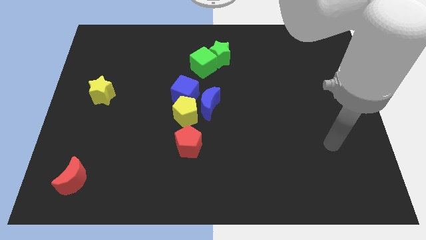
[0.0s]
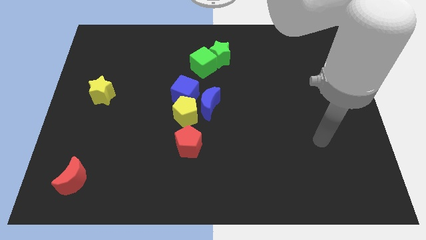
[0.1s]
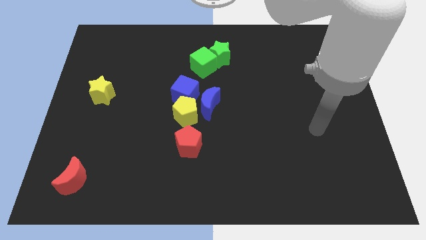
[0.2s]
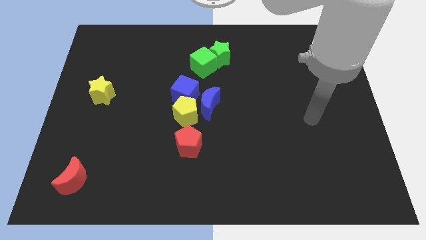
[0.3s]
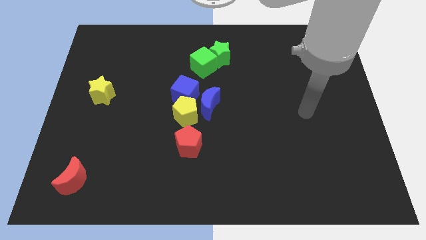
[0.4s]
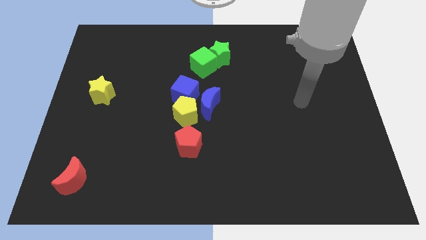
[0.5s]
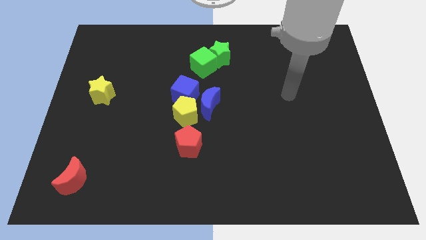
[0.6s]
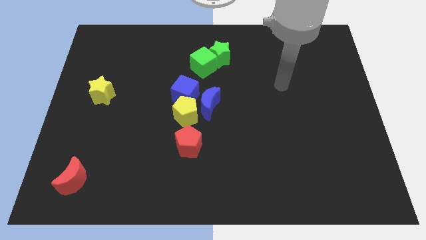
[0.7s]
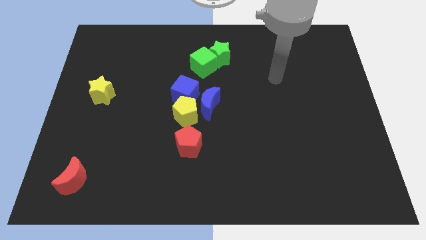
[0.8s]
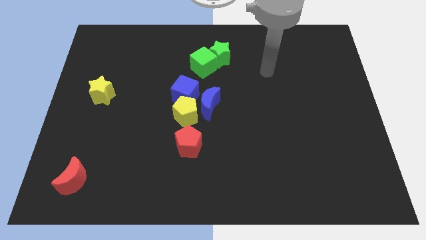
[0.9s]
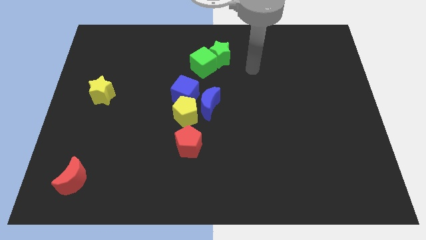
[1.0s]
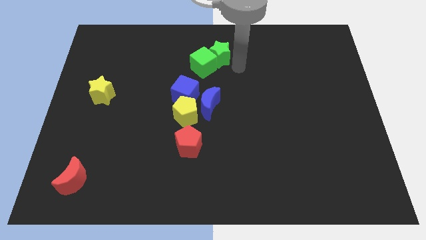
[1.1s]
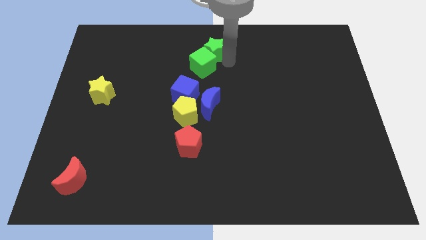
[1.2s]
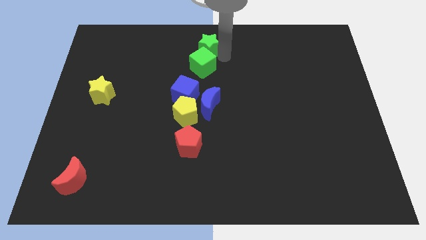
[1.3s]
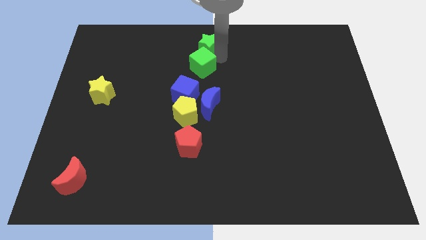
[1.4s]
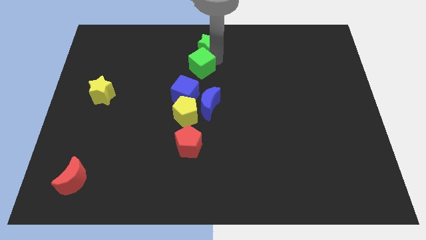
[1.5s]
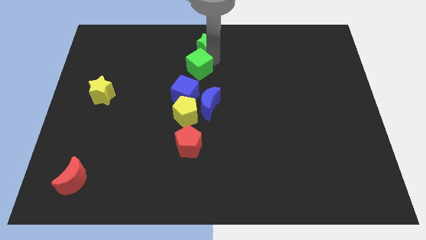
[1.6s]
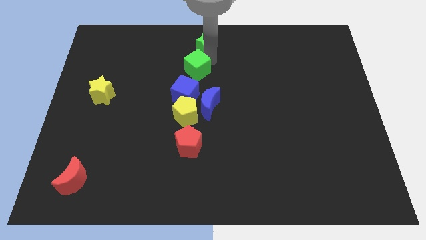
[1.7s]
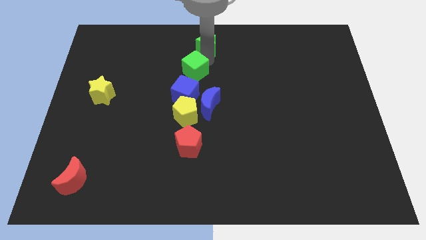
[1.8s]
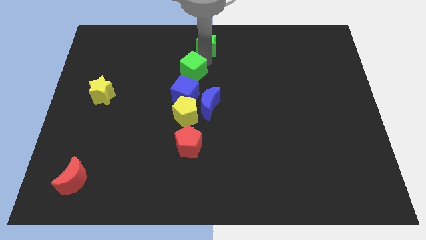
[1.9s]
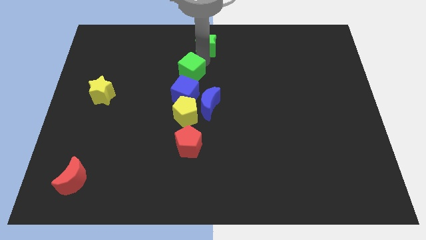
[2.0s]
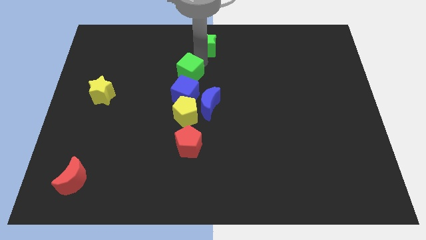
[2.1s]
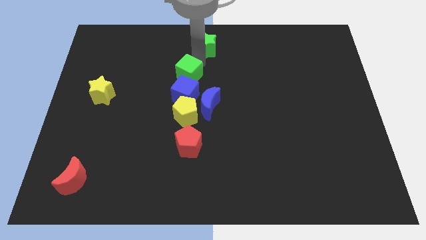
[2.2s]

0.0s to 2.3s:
move the green cube away from the green star

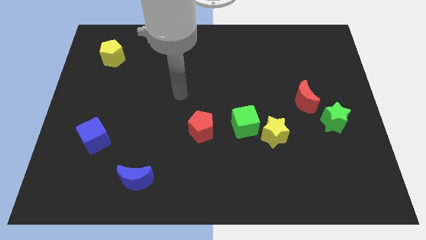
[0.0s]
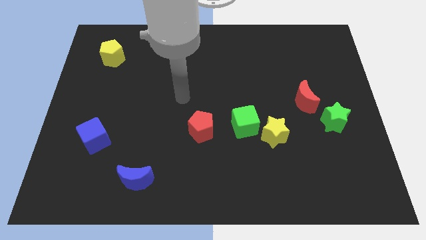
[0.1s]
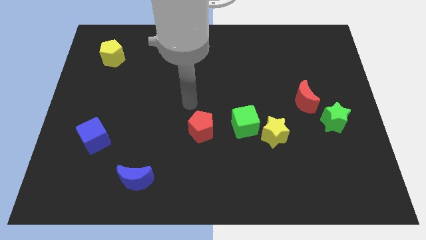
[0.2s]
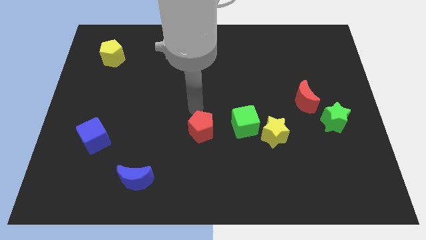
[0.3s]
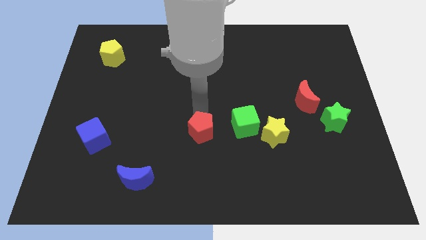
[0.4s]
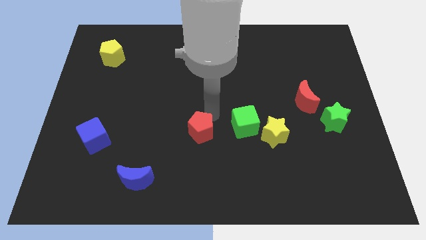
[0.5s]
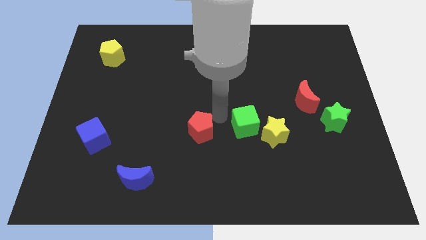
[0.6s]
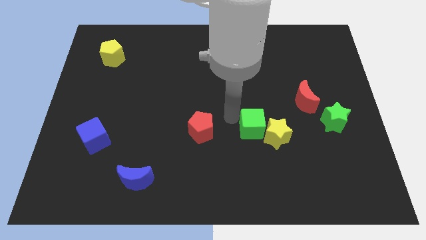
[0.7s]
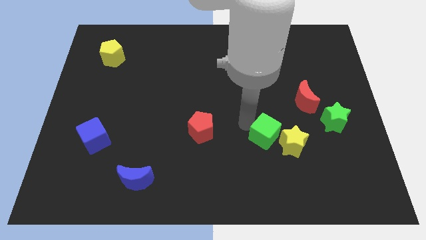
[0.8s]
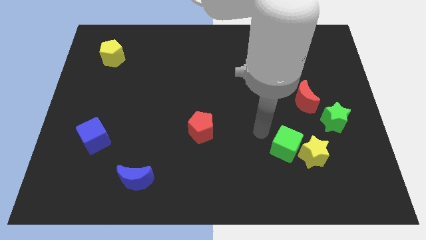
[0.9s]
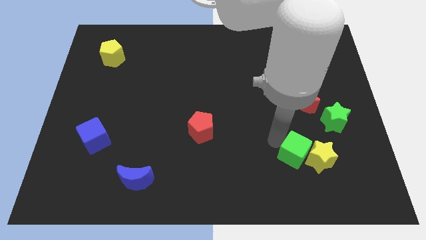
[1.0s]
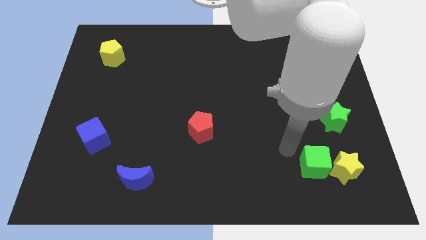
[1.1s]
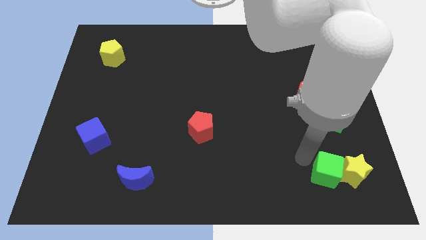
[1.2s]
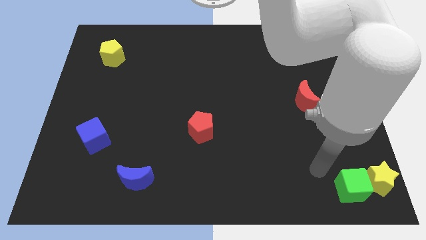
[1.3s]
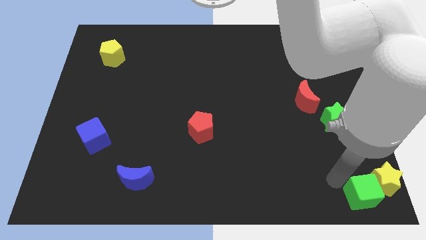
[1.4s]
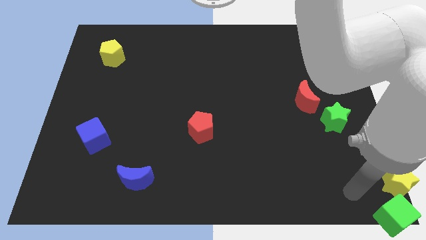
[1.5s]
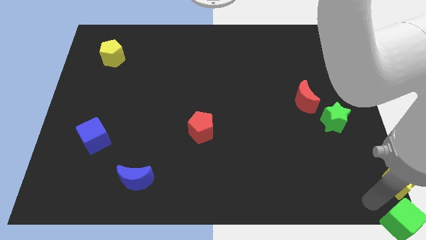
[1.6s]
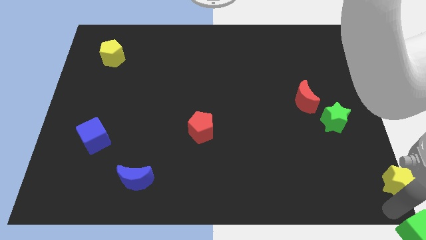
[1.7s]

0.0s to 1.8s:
separate the yellow star from the green cube

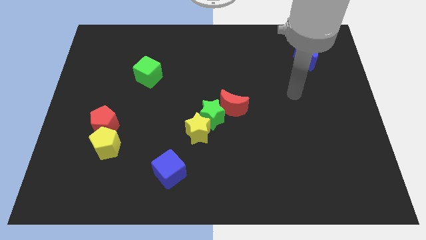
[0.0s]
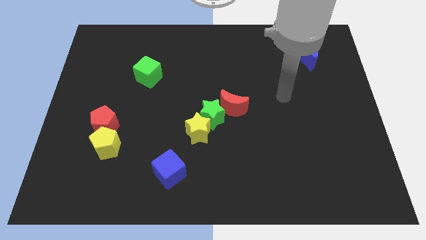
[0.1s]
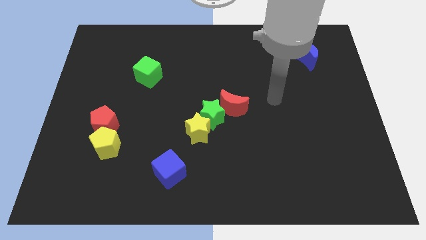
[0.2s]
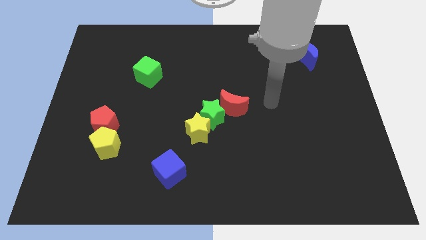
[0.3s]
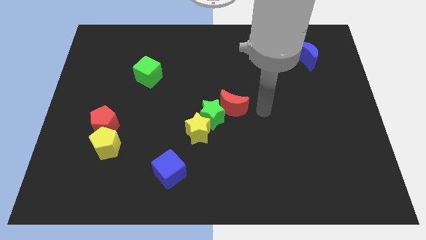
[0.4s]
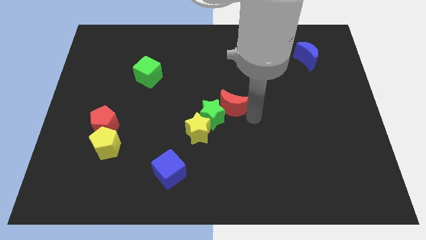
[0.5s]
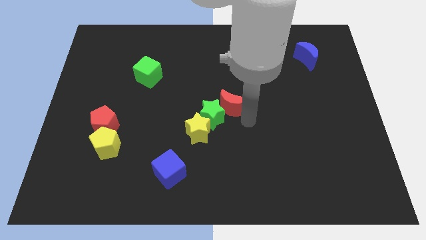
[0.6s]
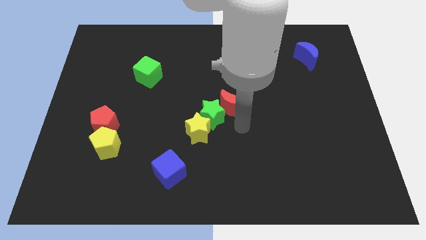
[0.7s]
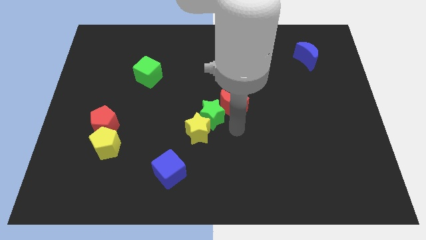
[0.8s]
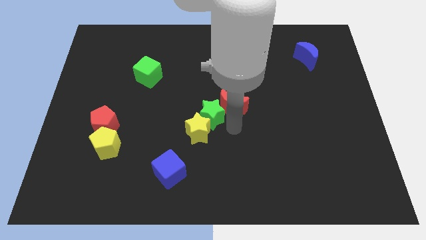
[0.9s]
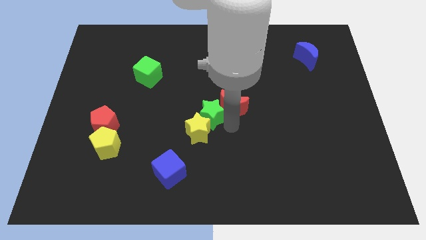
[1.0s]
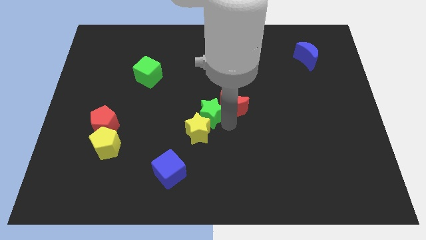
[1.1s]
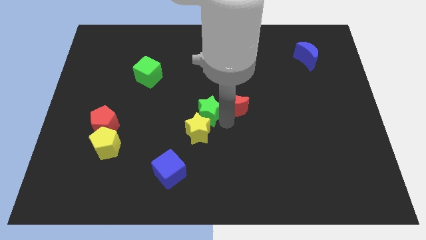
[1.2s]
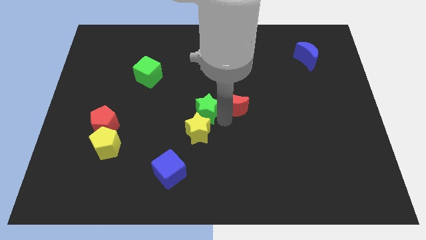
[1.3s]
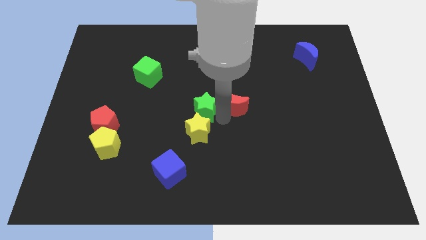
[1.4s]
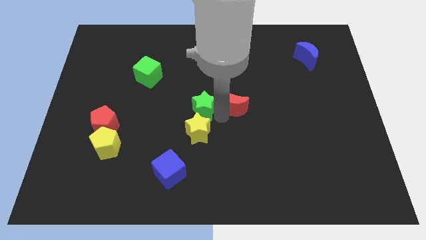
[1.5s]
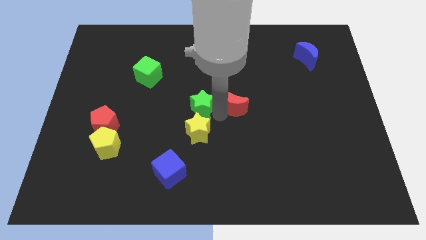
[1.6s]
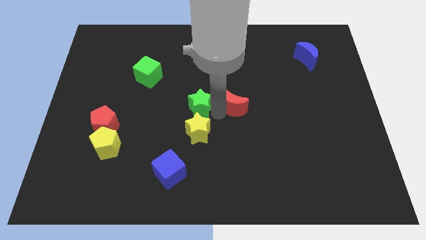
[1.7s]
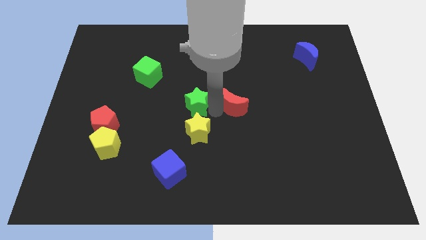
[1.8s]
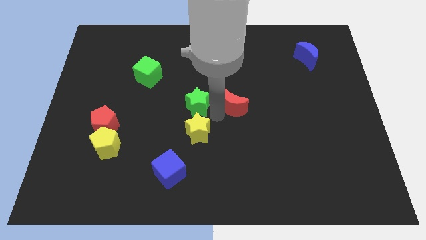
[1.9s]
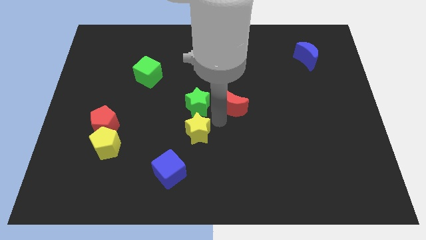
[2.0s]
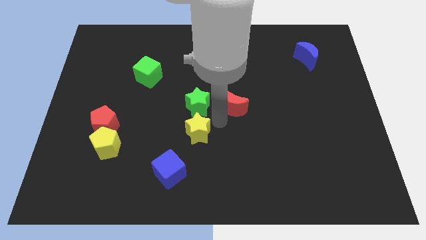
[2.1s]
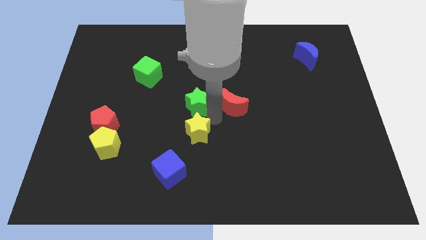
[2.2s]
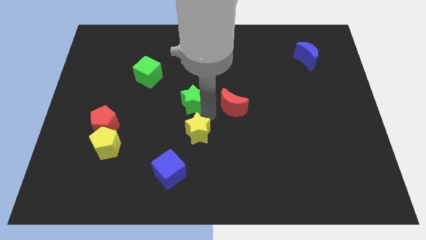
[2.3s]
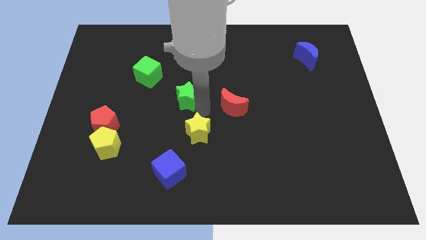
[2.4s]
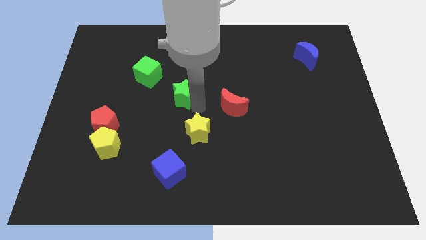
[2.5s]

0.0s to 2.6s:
separate the green star from the yellow star and red moon

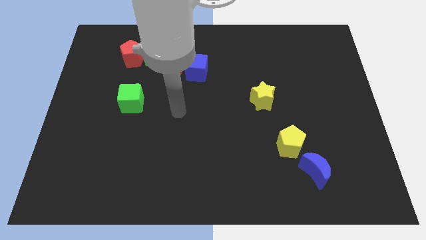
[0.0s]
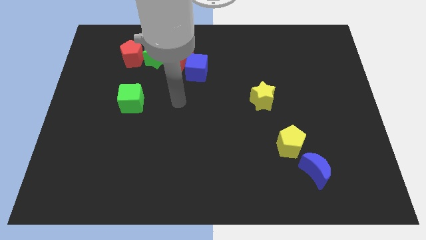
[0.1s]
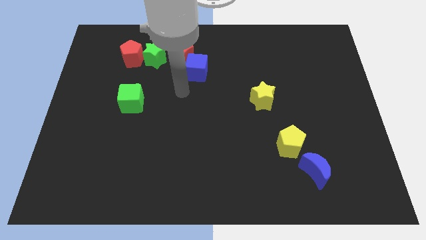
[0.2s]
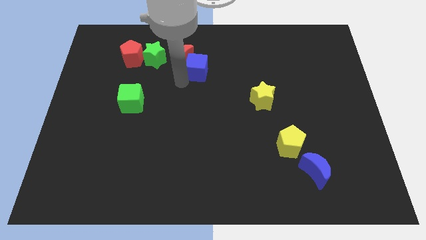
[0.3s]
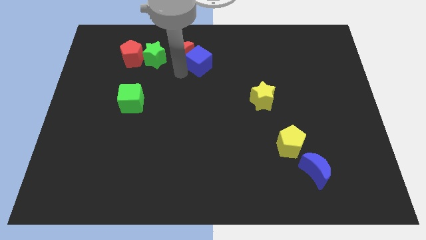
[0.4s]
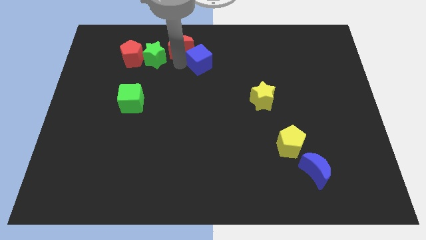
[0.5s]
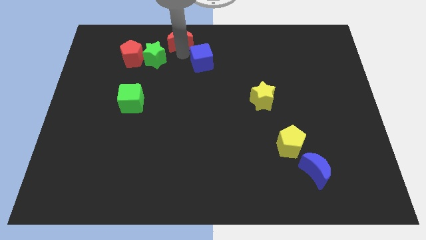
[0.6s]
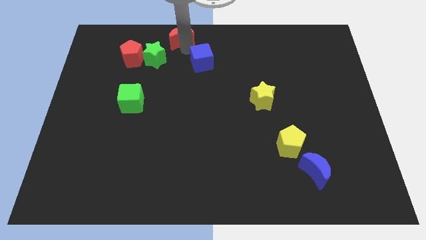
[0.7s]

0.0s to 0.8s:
move the blue cube away from the red moon

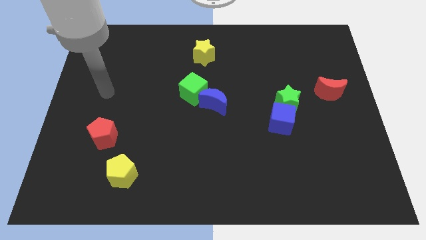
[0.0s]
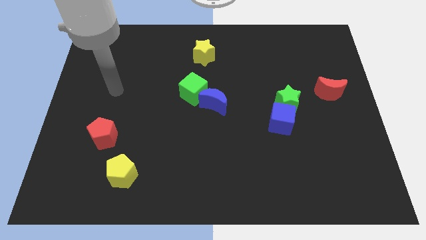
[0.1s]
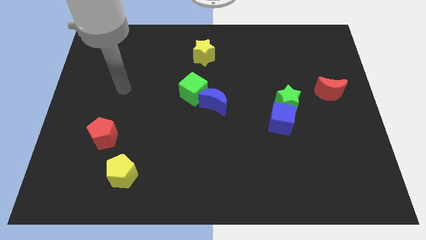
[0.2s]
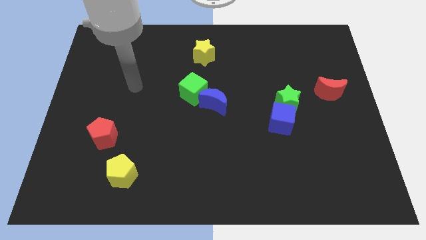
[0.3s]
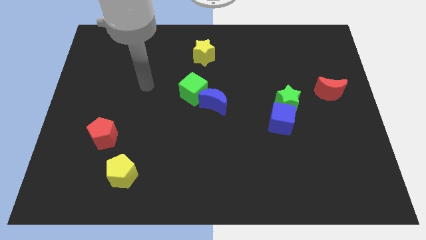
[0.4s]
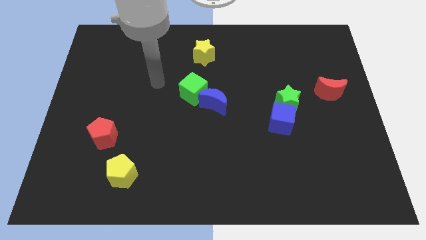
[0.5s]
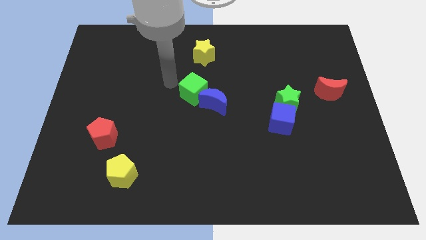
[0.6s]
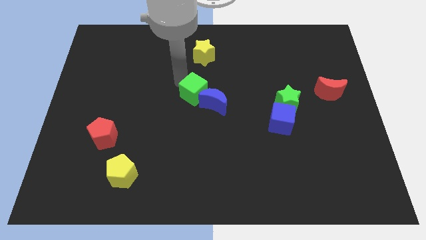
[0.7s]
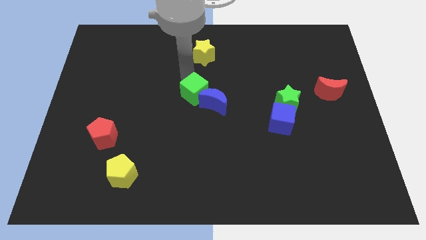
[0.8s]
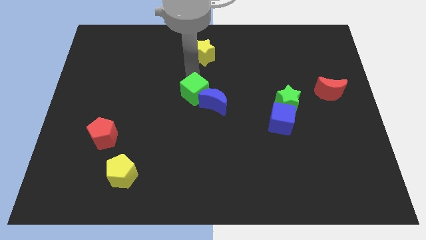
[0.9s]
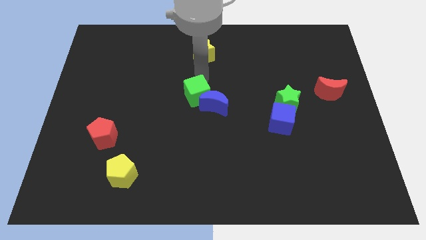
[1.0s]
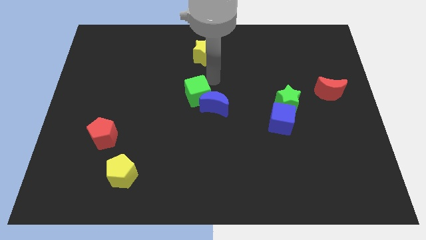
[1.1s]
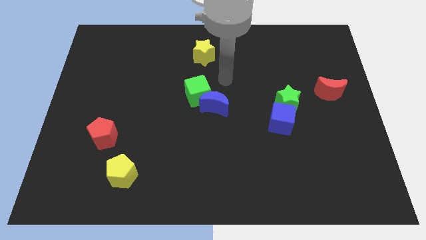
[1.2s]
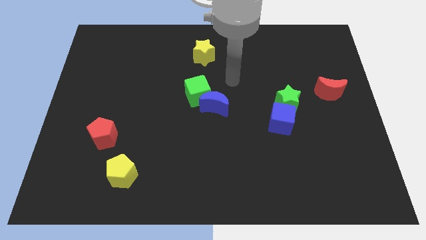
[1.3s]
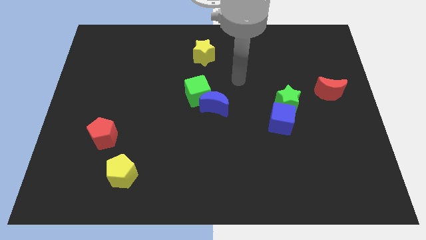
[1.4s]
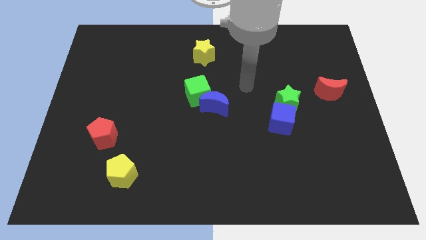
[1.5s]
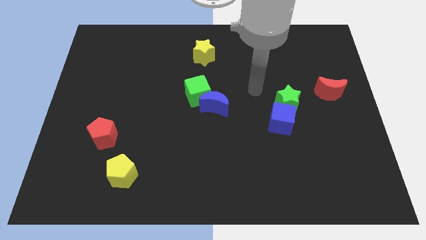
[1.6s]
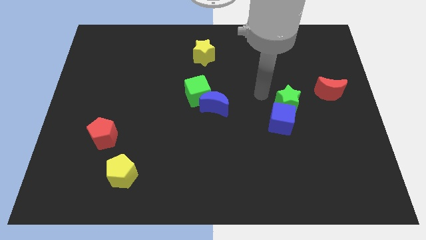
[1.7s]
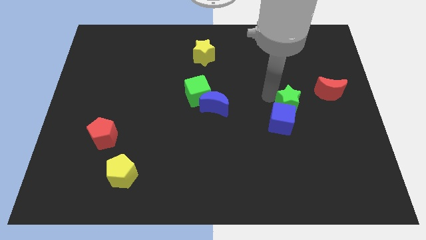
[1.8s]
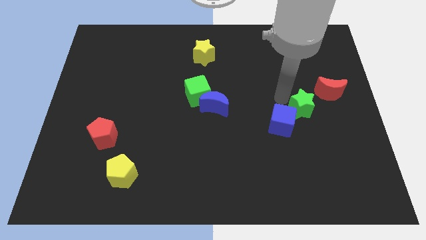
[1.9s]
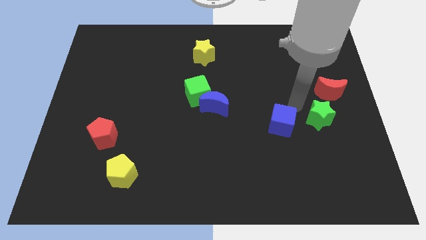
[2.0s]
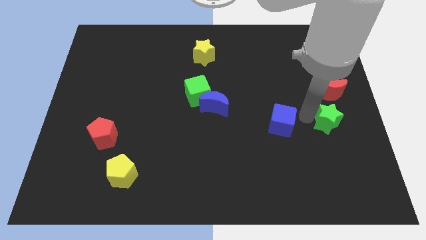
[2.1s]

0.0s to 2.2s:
move the blue cube away from the green star
